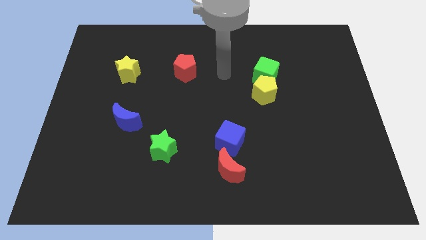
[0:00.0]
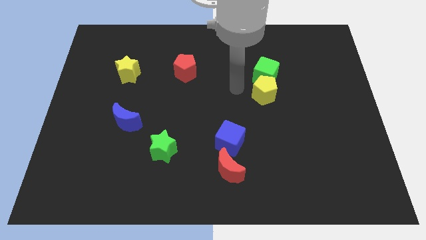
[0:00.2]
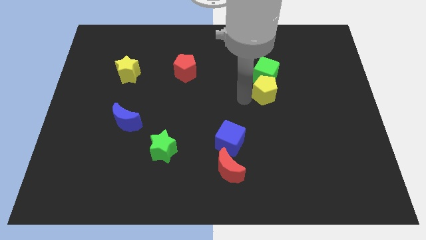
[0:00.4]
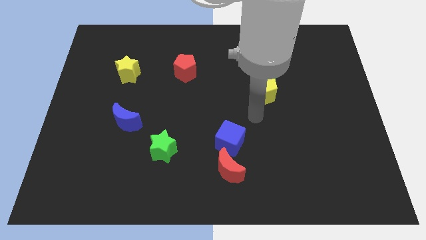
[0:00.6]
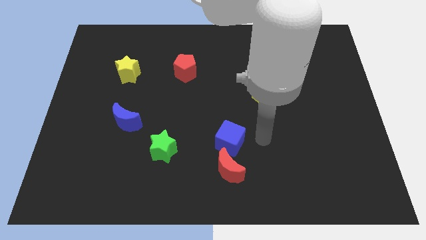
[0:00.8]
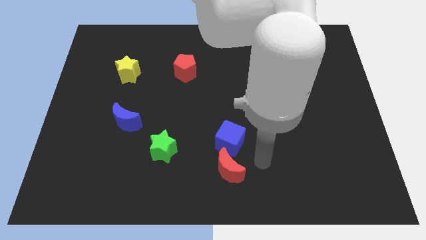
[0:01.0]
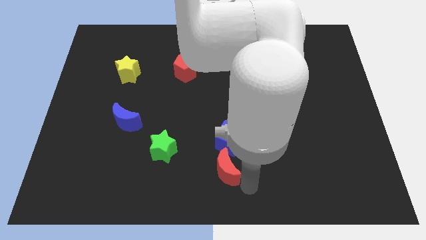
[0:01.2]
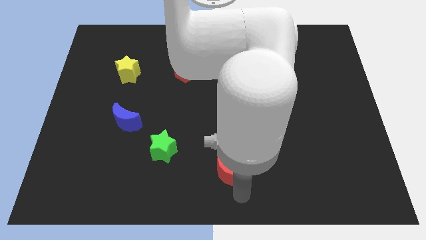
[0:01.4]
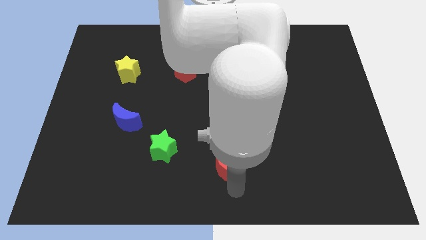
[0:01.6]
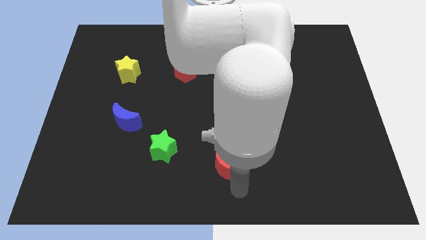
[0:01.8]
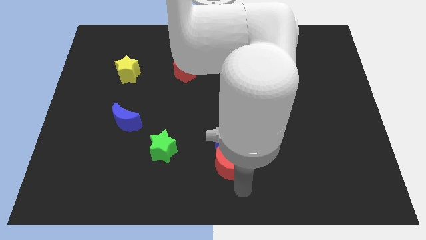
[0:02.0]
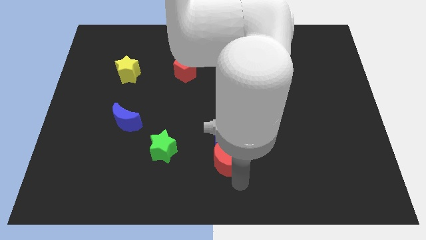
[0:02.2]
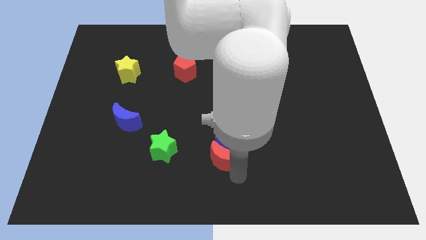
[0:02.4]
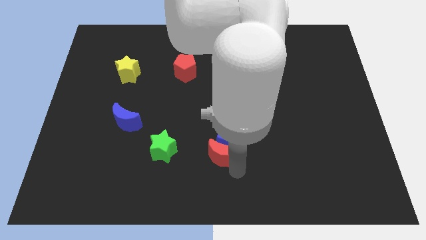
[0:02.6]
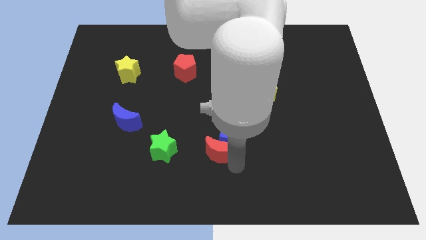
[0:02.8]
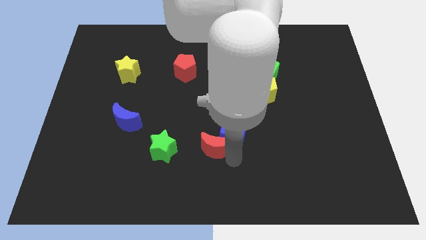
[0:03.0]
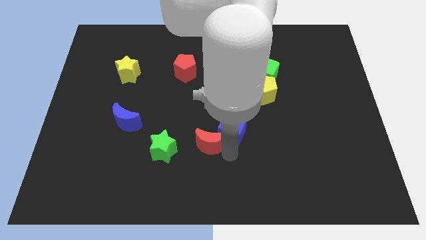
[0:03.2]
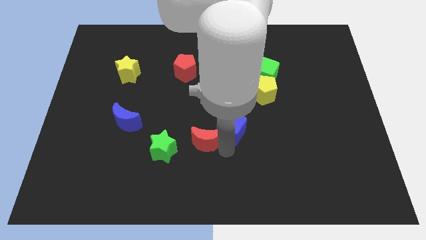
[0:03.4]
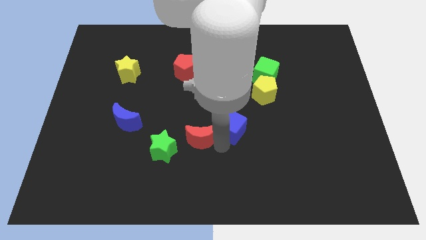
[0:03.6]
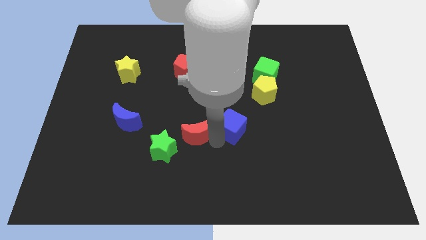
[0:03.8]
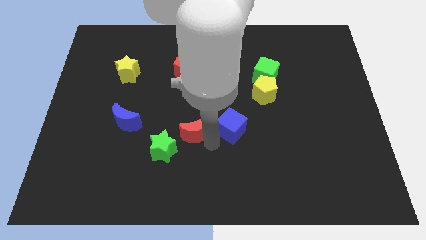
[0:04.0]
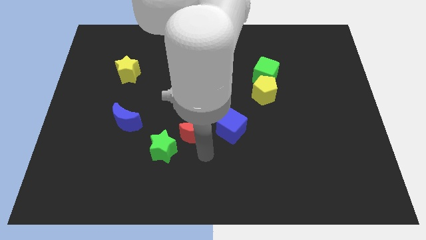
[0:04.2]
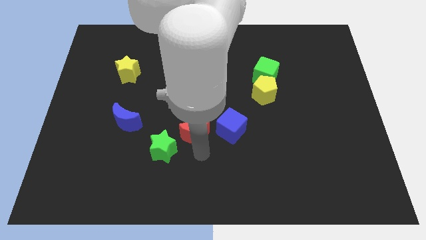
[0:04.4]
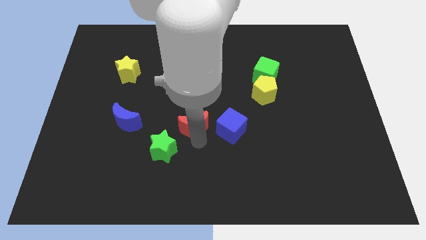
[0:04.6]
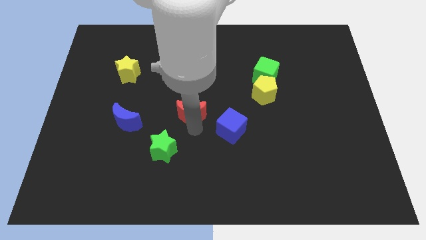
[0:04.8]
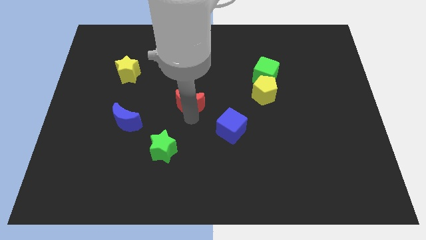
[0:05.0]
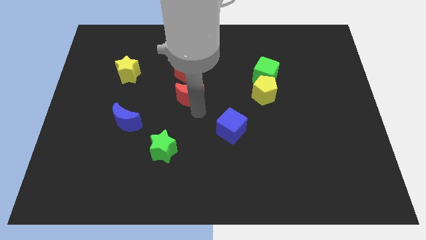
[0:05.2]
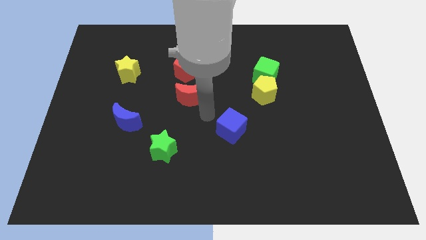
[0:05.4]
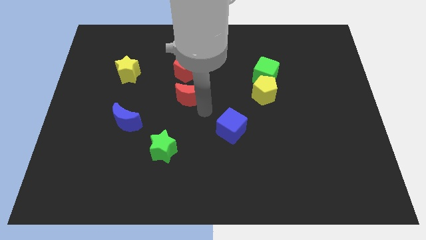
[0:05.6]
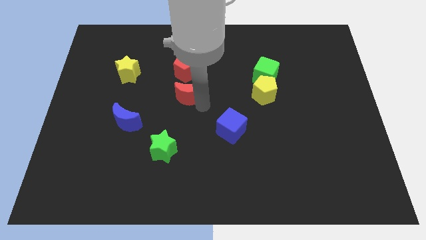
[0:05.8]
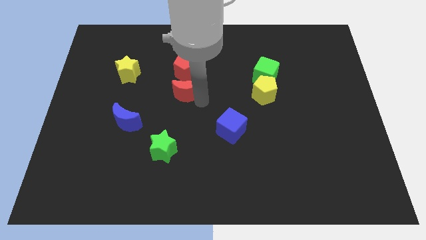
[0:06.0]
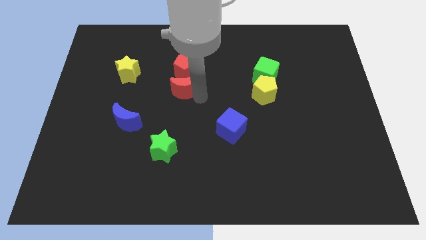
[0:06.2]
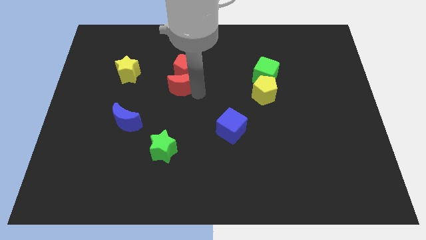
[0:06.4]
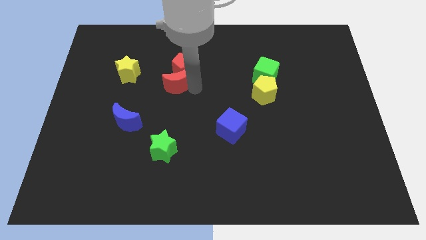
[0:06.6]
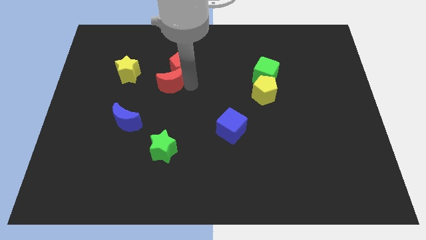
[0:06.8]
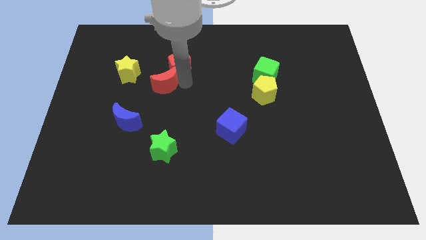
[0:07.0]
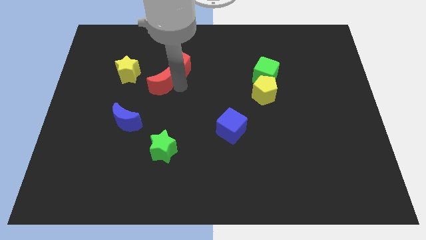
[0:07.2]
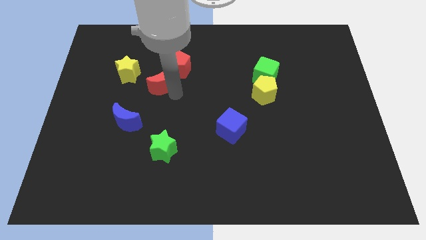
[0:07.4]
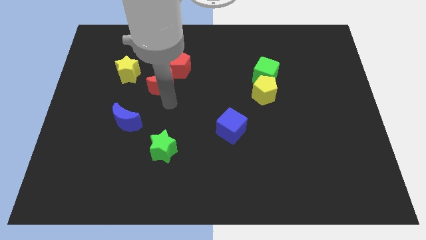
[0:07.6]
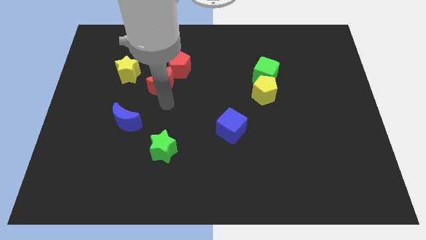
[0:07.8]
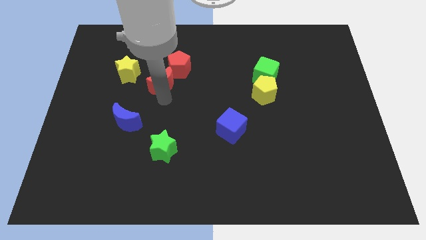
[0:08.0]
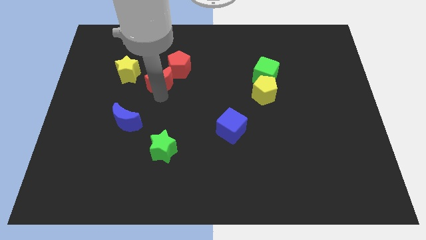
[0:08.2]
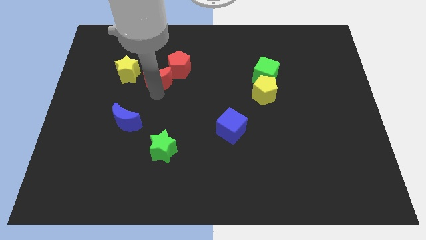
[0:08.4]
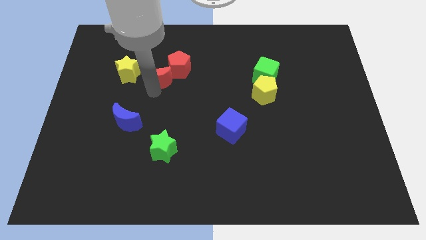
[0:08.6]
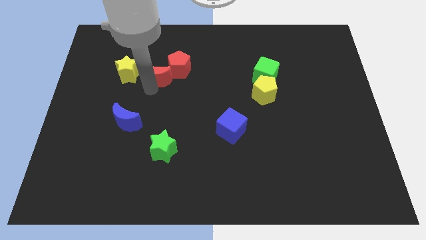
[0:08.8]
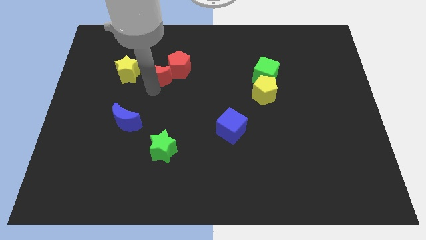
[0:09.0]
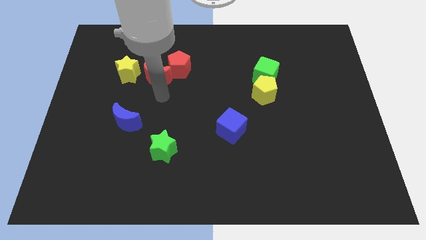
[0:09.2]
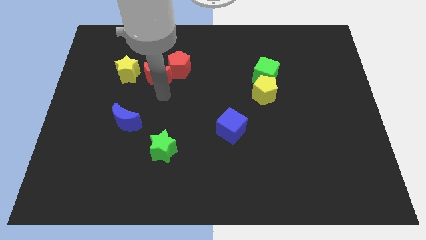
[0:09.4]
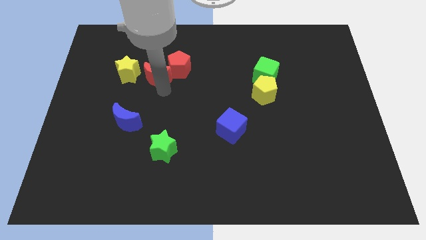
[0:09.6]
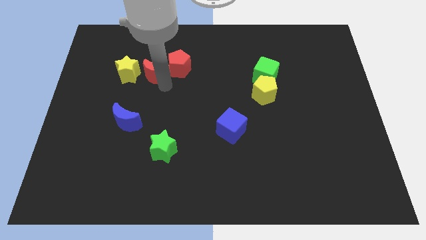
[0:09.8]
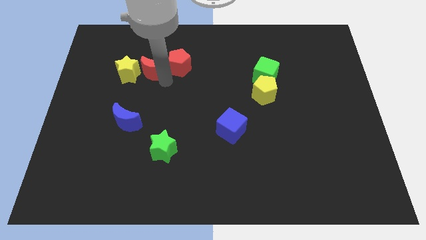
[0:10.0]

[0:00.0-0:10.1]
slide the red moon to the top right of the yellow star

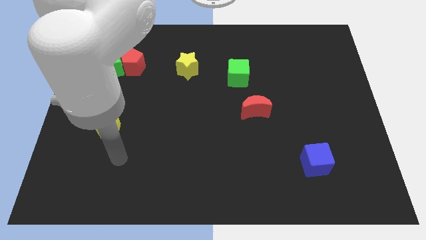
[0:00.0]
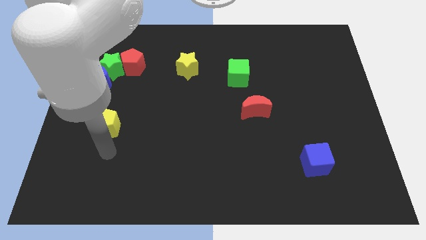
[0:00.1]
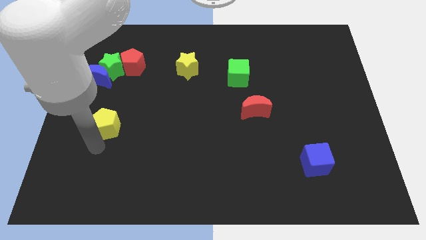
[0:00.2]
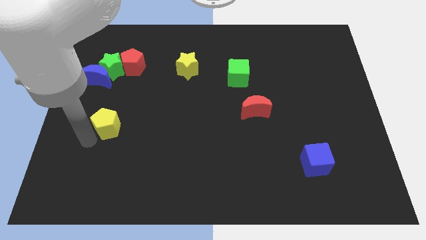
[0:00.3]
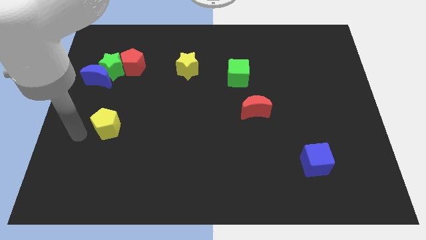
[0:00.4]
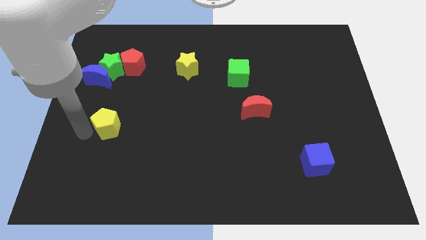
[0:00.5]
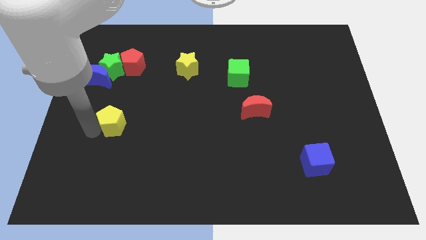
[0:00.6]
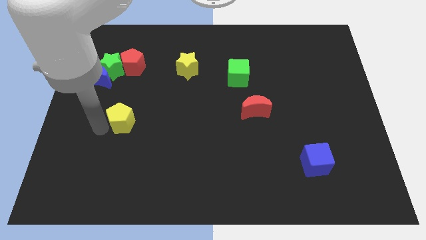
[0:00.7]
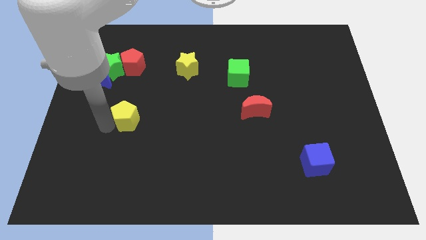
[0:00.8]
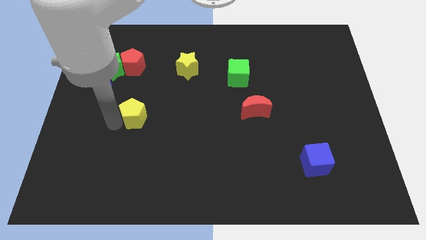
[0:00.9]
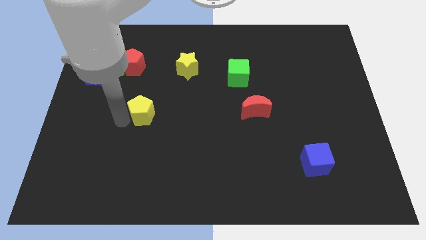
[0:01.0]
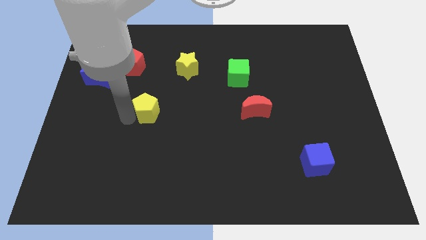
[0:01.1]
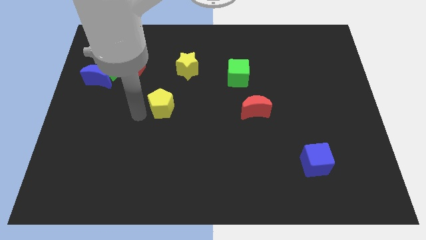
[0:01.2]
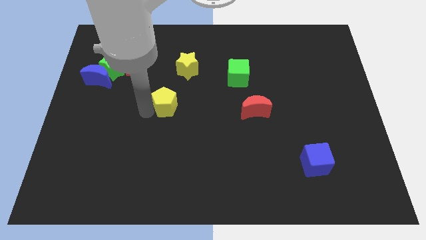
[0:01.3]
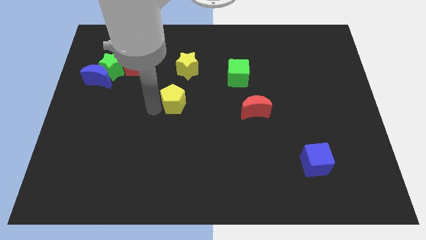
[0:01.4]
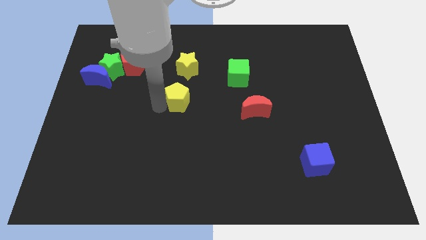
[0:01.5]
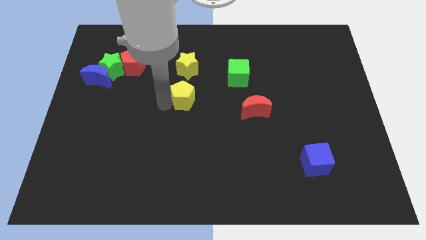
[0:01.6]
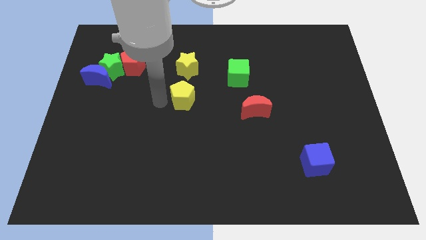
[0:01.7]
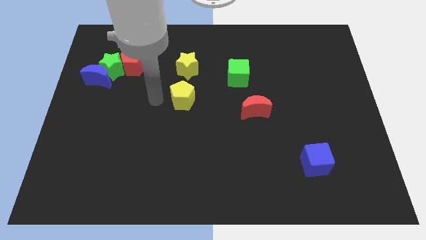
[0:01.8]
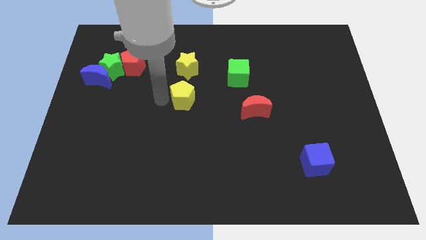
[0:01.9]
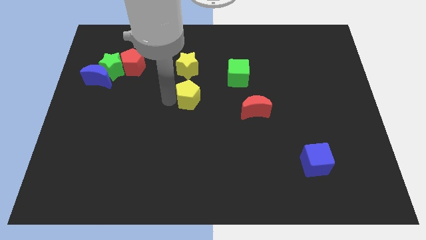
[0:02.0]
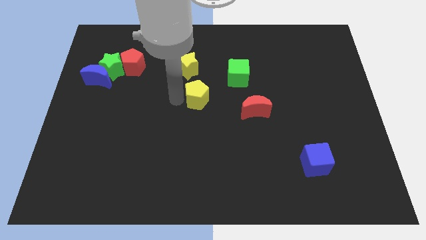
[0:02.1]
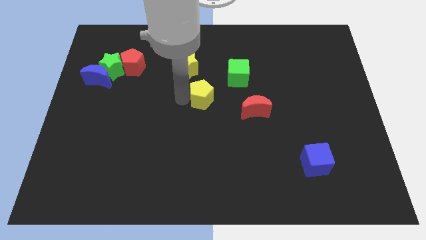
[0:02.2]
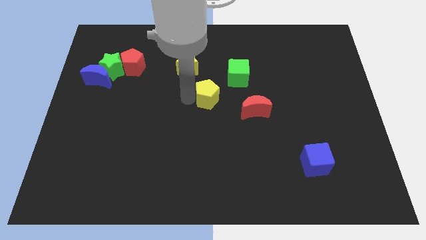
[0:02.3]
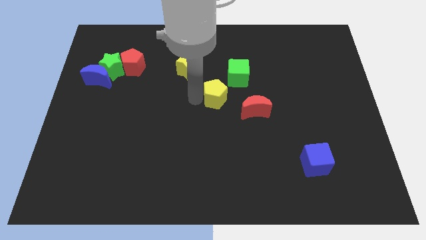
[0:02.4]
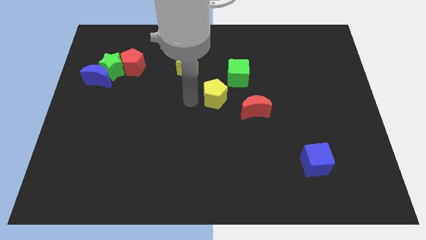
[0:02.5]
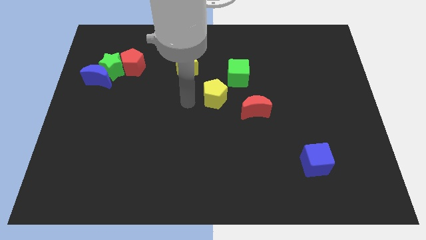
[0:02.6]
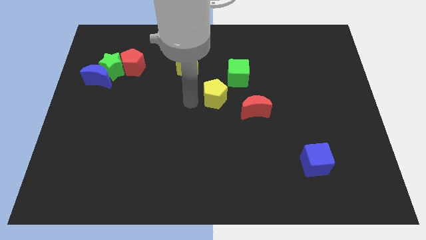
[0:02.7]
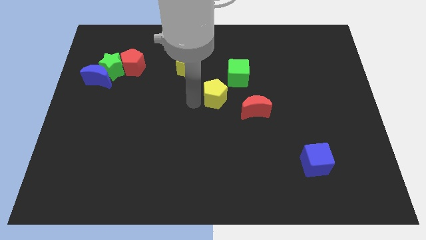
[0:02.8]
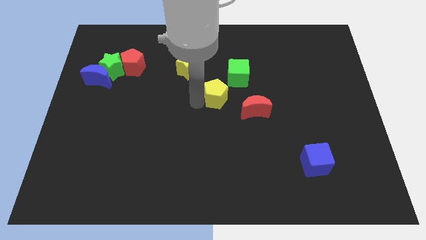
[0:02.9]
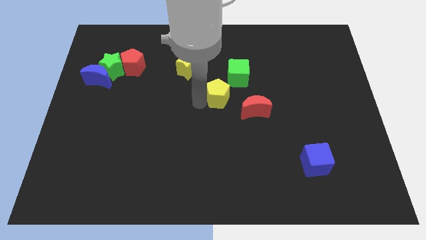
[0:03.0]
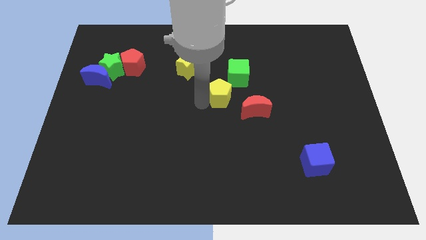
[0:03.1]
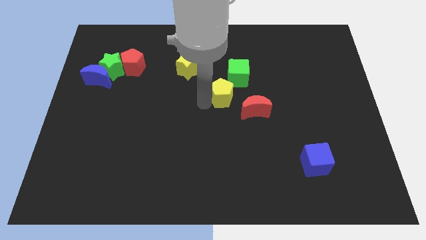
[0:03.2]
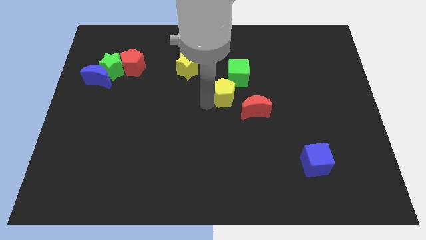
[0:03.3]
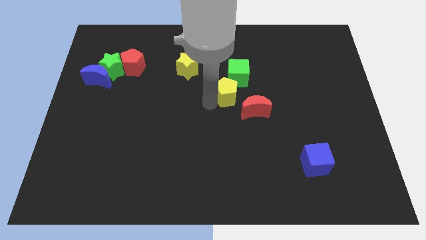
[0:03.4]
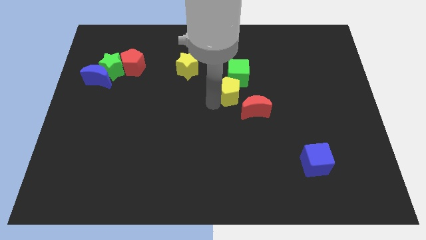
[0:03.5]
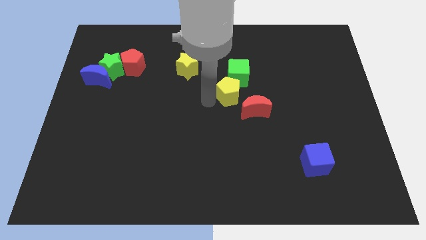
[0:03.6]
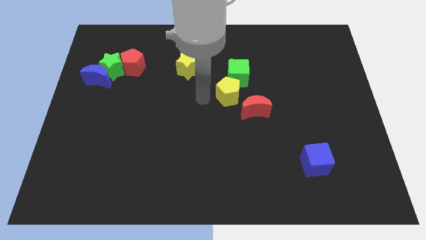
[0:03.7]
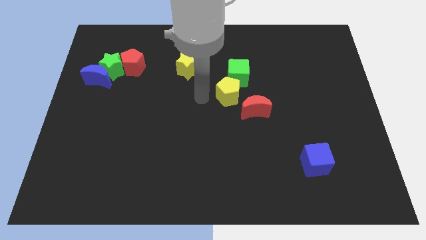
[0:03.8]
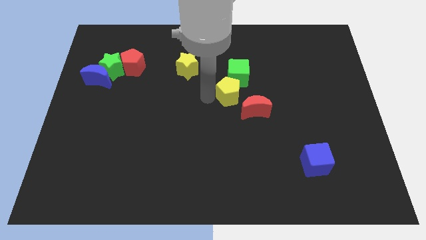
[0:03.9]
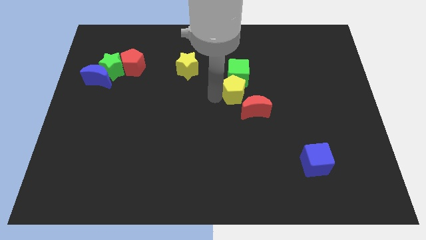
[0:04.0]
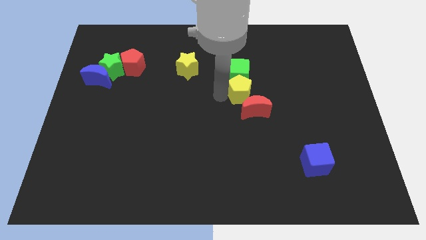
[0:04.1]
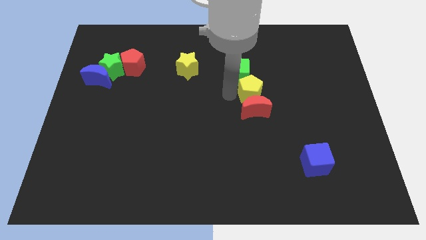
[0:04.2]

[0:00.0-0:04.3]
slide the yellow pentagon to the top right side of the red moon
